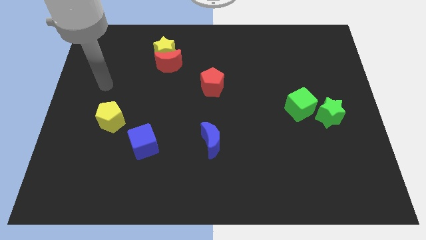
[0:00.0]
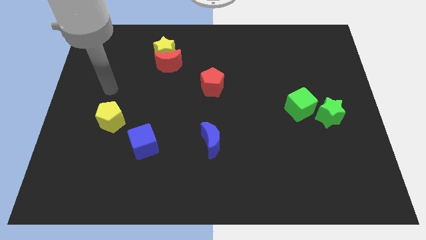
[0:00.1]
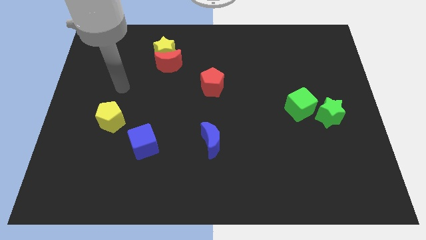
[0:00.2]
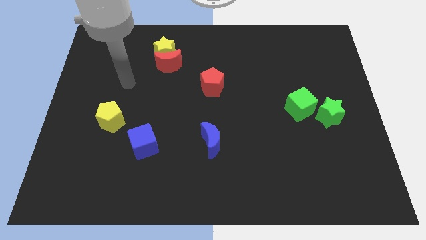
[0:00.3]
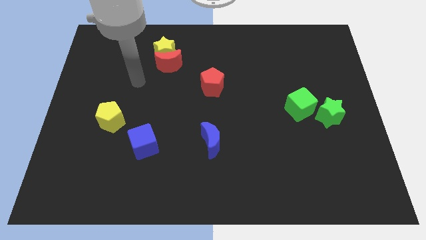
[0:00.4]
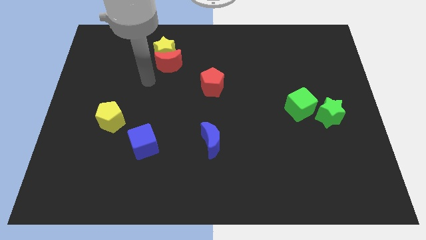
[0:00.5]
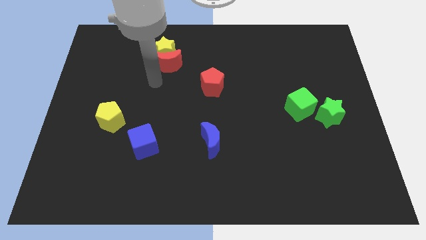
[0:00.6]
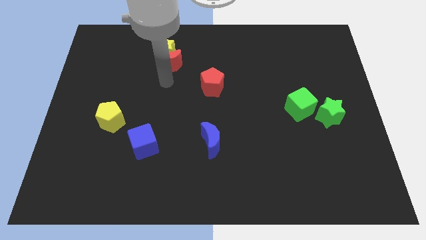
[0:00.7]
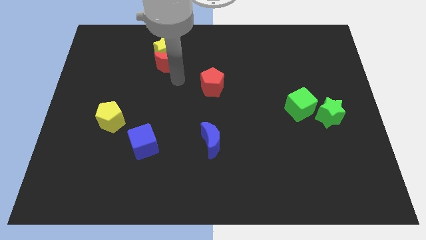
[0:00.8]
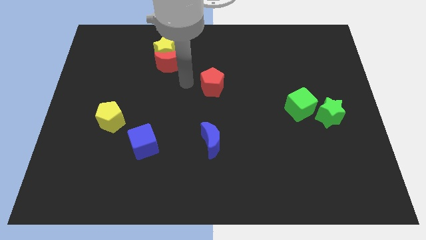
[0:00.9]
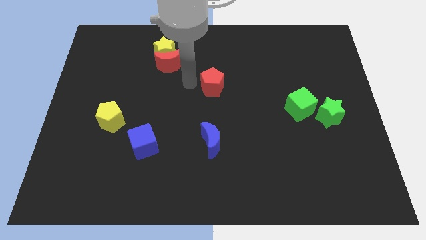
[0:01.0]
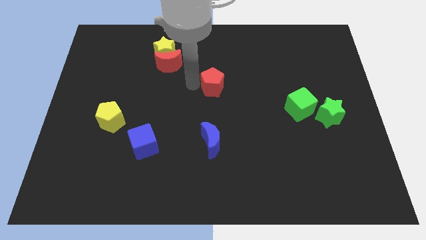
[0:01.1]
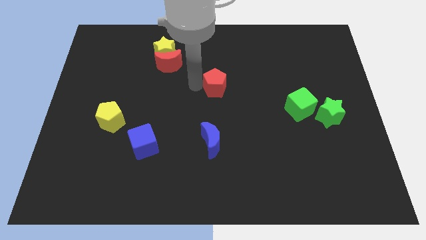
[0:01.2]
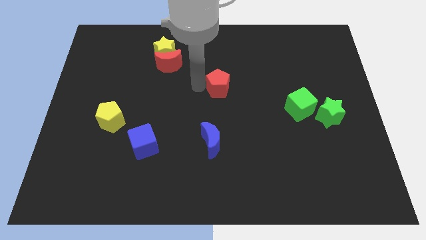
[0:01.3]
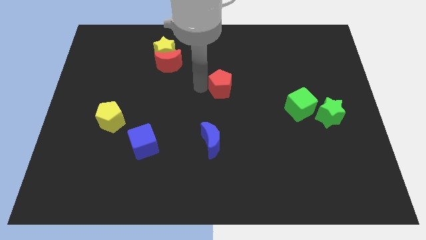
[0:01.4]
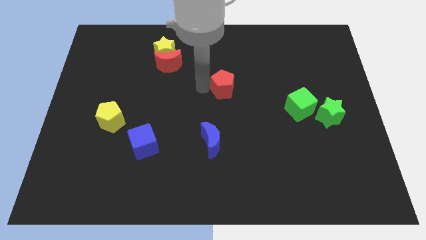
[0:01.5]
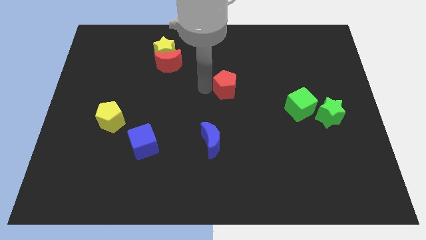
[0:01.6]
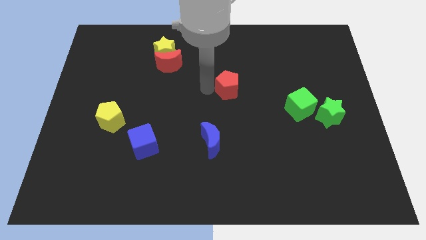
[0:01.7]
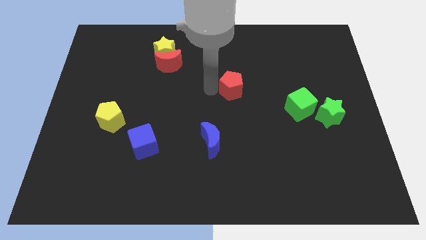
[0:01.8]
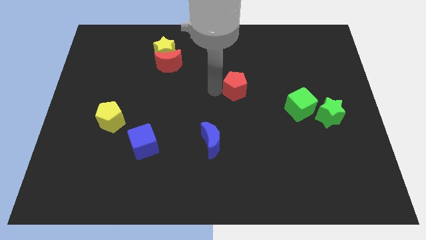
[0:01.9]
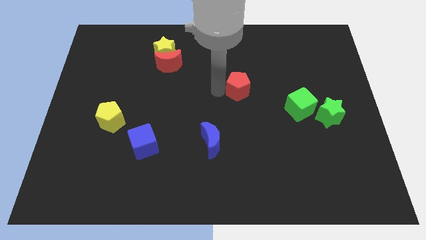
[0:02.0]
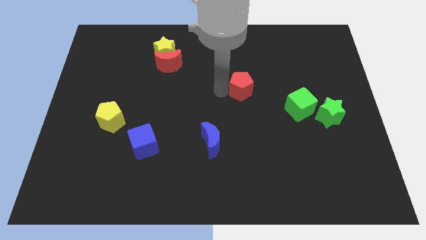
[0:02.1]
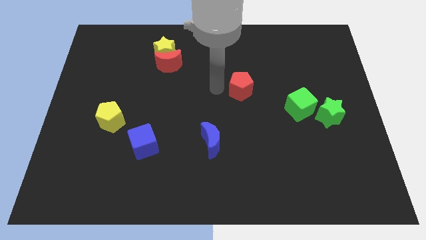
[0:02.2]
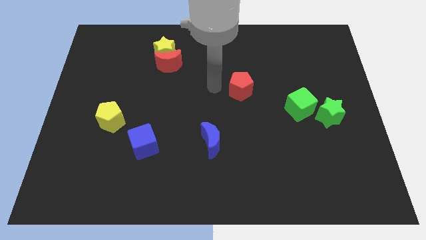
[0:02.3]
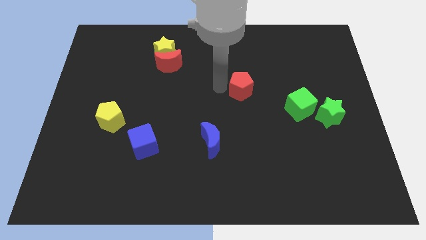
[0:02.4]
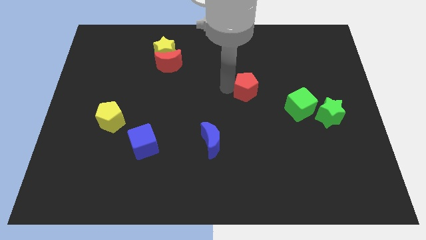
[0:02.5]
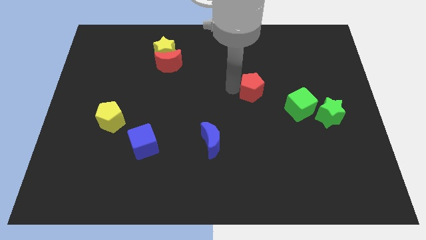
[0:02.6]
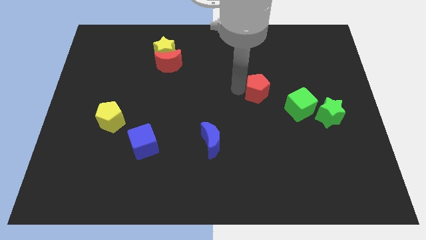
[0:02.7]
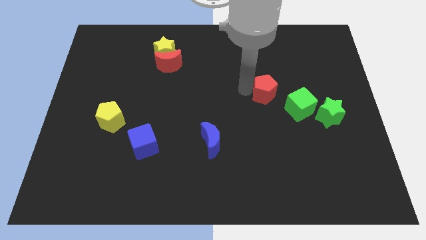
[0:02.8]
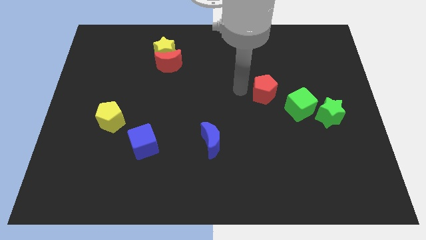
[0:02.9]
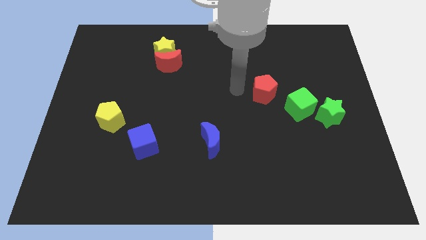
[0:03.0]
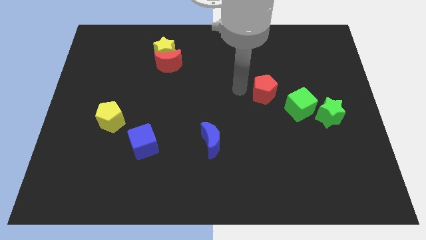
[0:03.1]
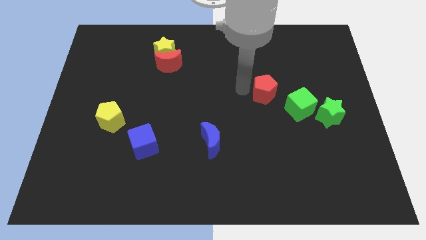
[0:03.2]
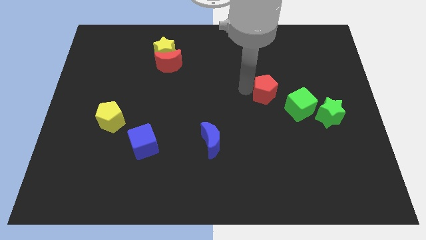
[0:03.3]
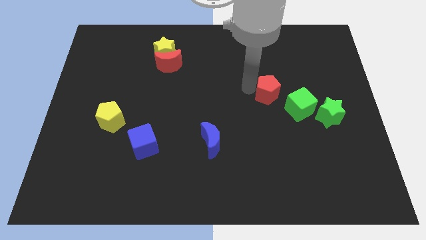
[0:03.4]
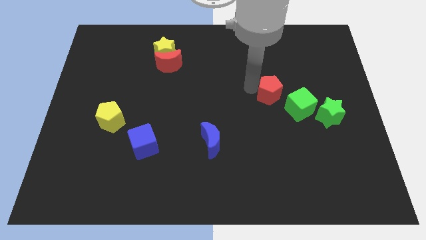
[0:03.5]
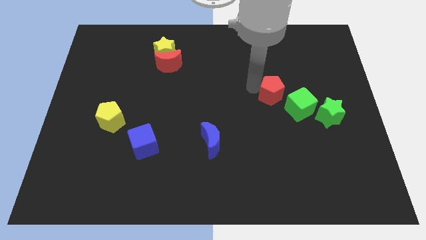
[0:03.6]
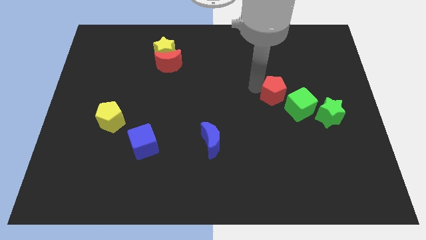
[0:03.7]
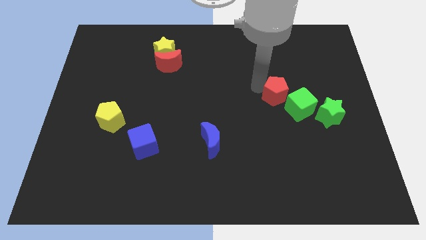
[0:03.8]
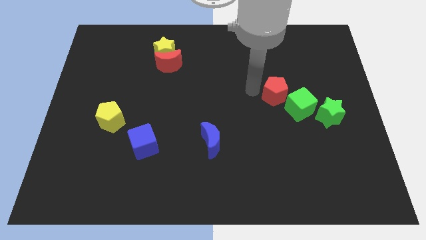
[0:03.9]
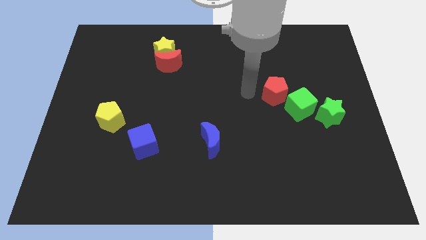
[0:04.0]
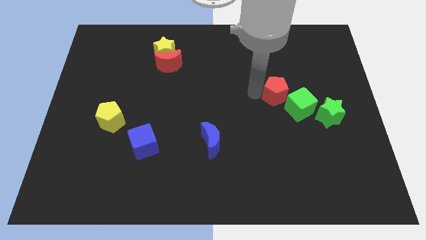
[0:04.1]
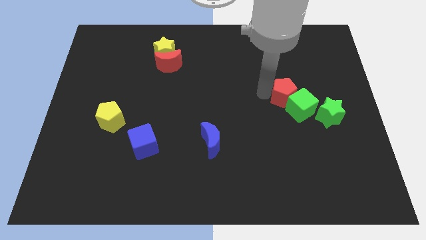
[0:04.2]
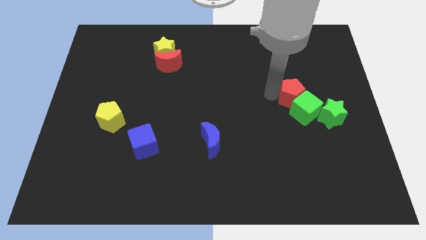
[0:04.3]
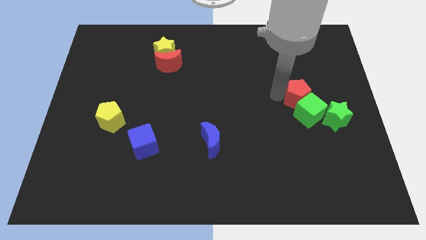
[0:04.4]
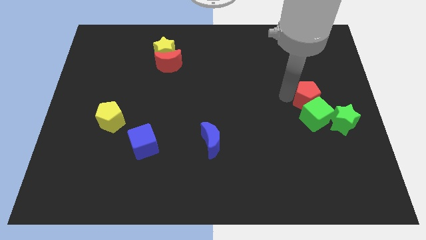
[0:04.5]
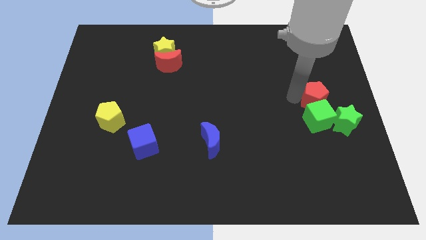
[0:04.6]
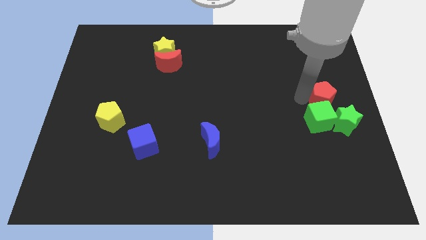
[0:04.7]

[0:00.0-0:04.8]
push the red pentagon to the right side

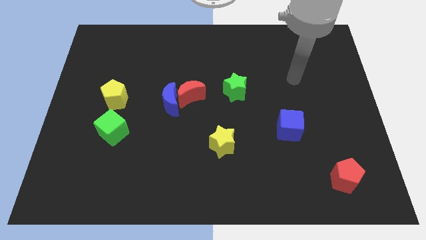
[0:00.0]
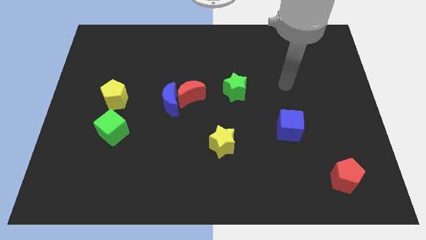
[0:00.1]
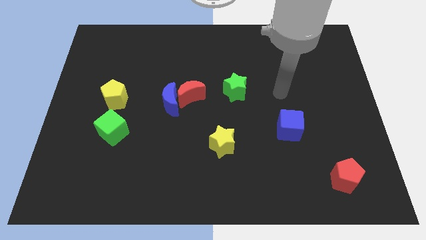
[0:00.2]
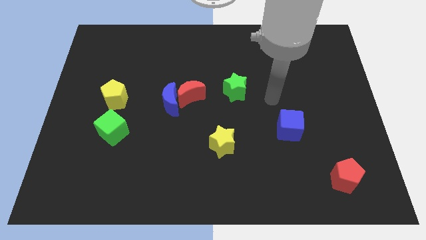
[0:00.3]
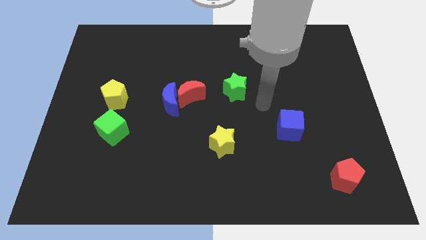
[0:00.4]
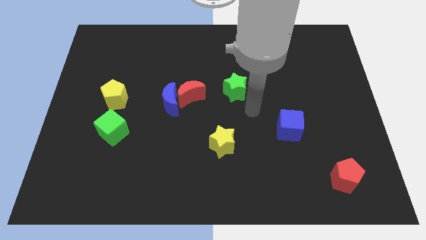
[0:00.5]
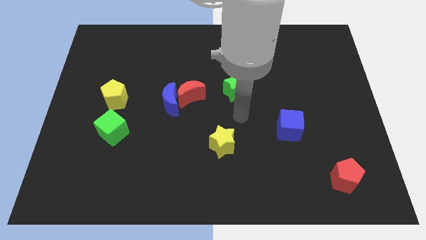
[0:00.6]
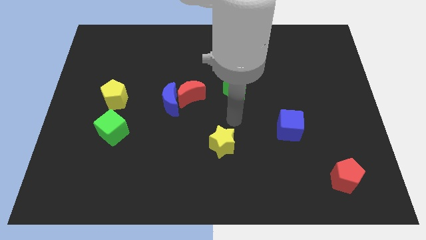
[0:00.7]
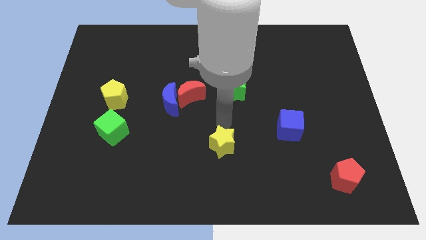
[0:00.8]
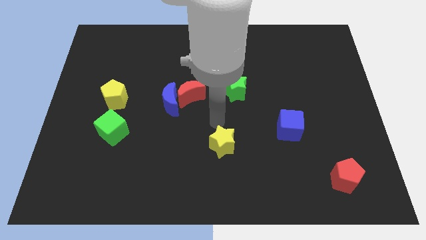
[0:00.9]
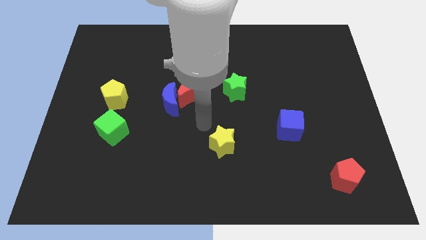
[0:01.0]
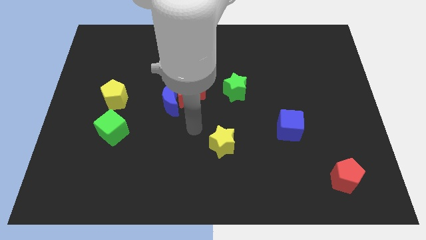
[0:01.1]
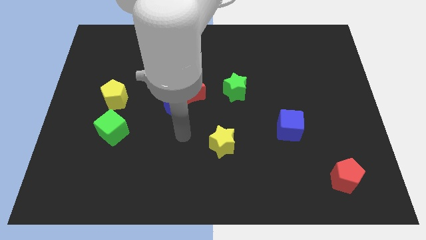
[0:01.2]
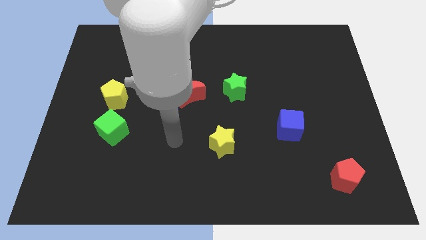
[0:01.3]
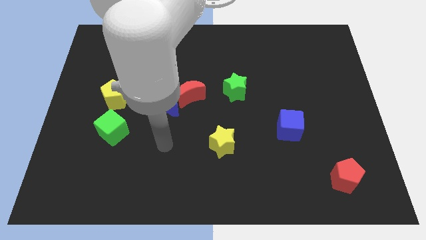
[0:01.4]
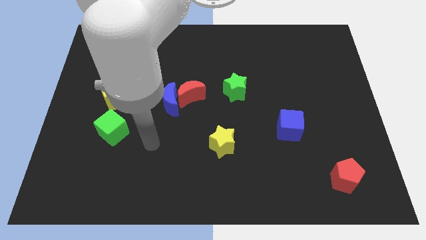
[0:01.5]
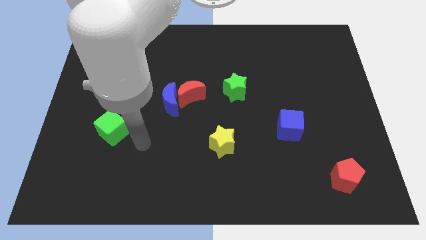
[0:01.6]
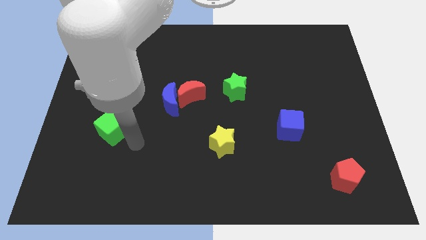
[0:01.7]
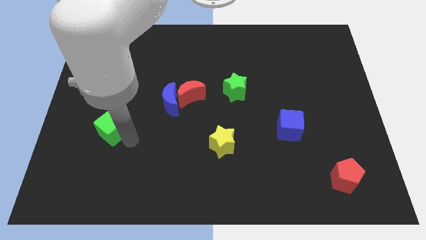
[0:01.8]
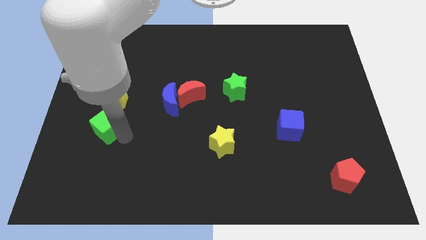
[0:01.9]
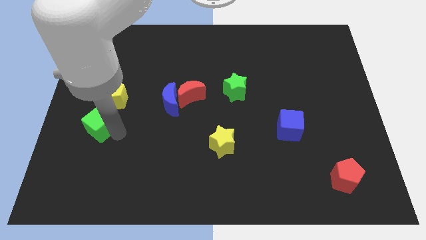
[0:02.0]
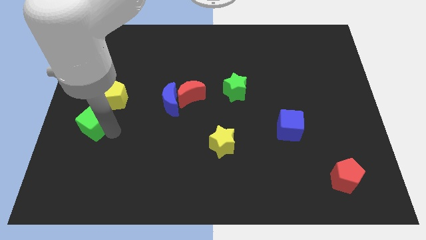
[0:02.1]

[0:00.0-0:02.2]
slide the green cube to the left side of the board
